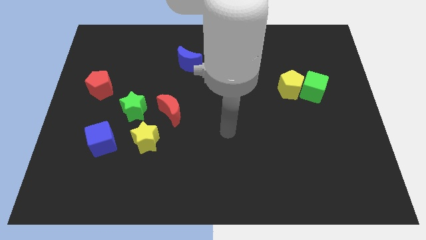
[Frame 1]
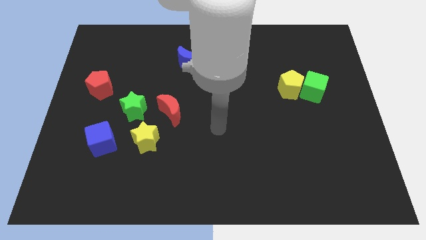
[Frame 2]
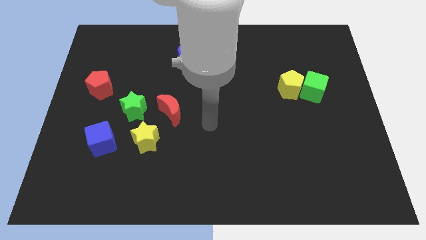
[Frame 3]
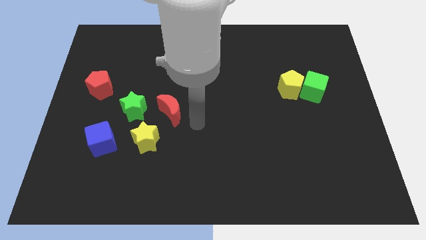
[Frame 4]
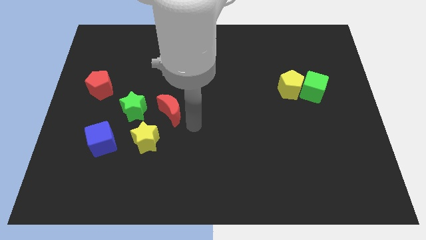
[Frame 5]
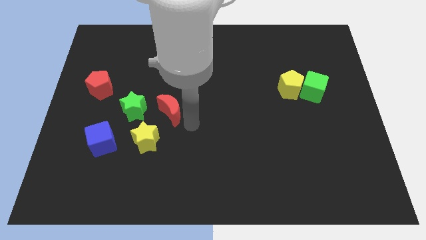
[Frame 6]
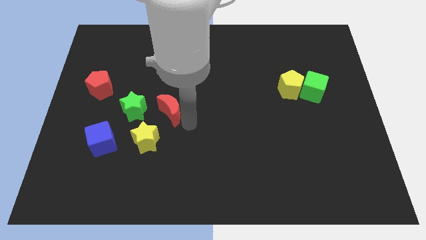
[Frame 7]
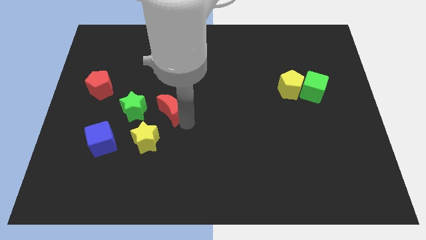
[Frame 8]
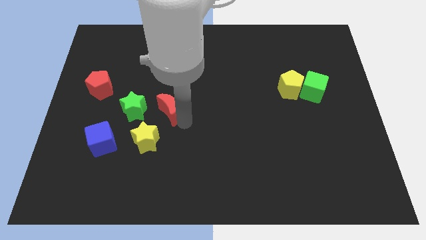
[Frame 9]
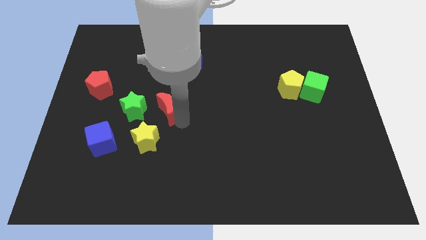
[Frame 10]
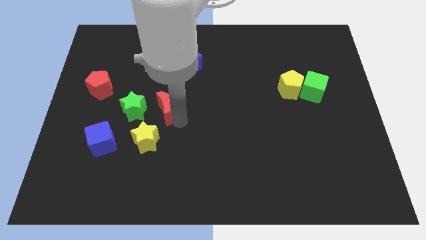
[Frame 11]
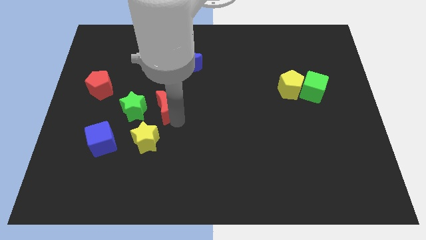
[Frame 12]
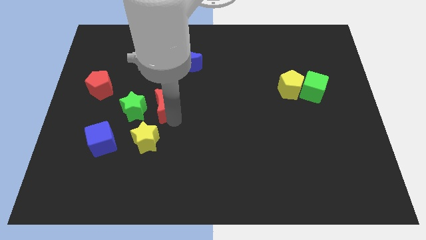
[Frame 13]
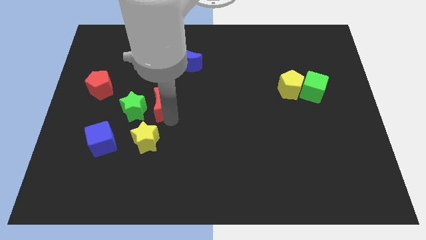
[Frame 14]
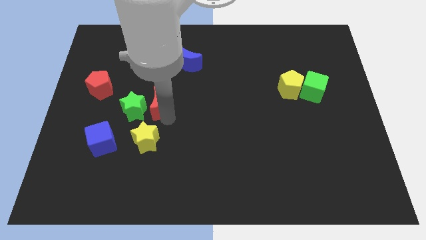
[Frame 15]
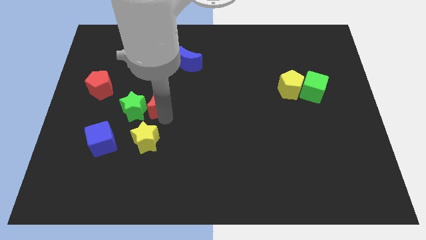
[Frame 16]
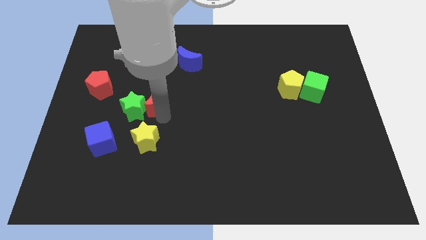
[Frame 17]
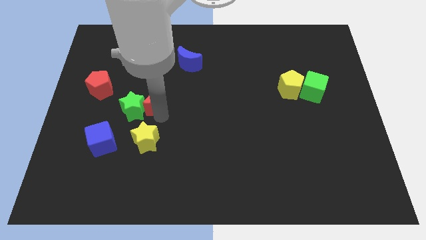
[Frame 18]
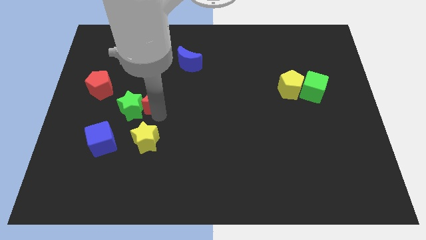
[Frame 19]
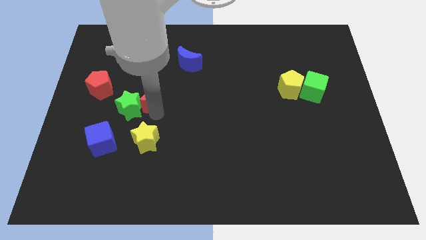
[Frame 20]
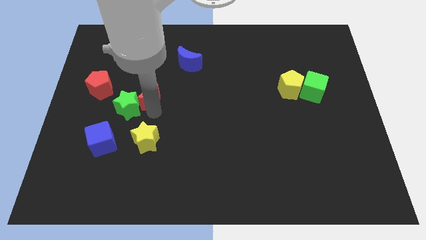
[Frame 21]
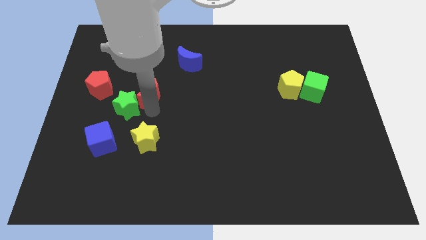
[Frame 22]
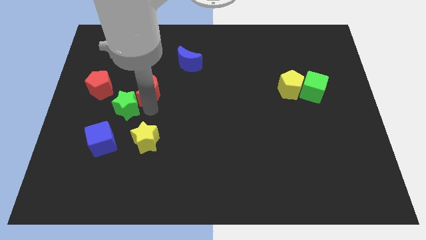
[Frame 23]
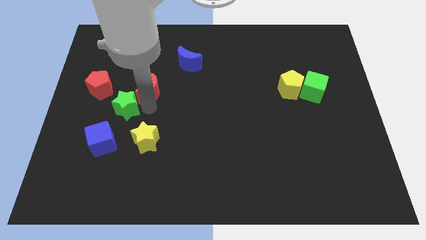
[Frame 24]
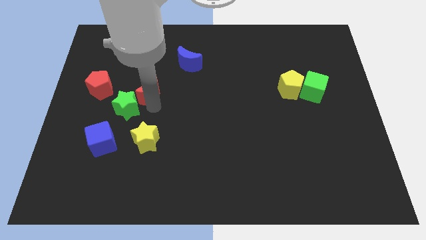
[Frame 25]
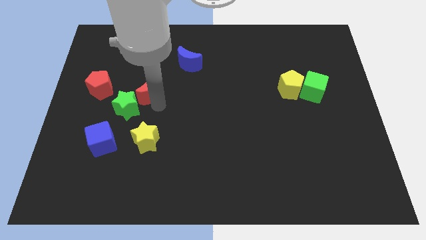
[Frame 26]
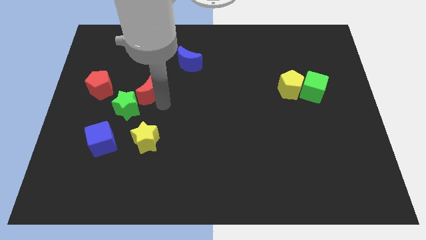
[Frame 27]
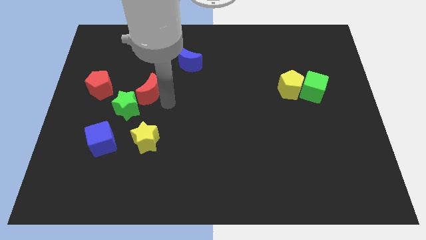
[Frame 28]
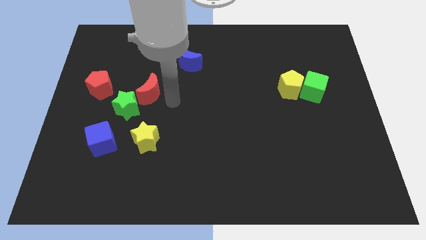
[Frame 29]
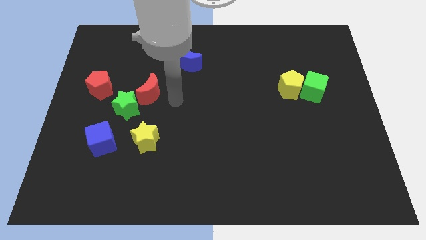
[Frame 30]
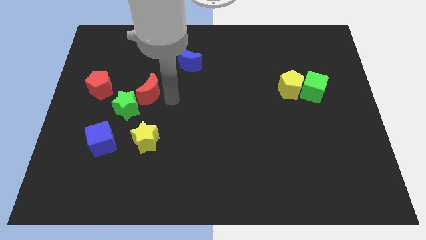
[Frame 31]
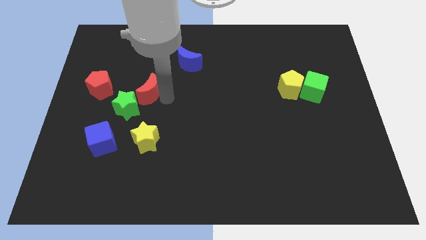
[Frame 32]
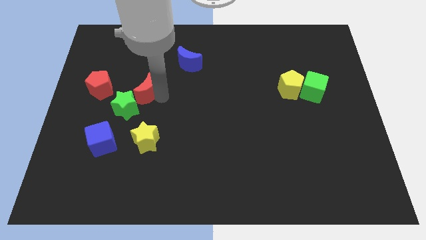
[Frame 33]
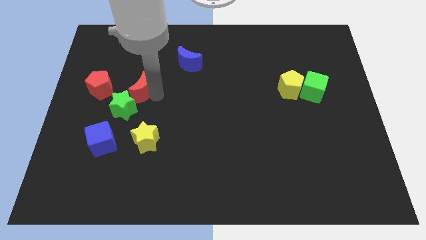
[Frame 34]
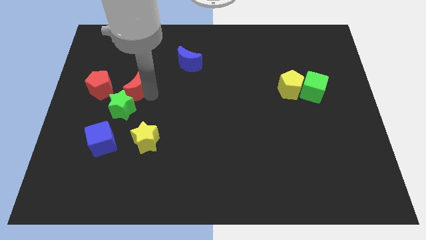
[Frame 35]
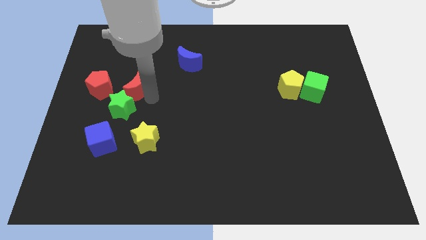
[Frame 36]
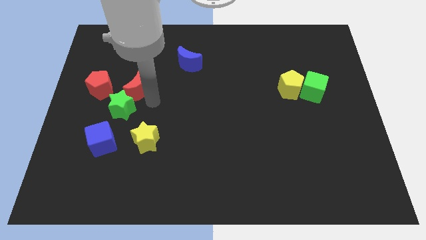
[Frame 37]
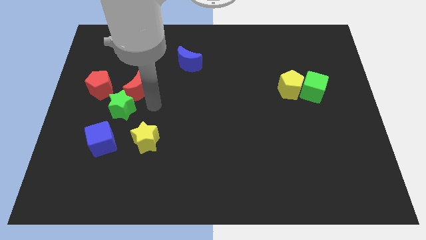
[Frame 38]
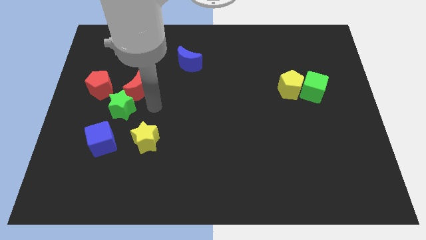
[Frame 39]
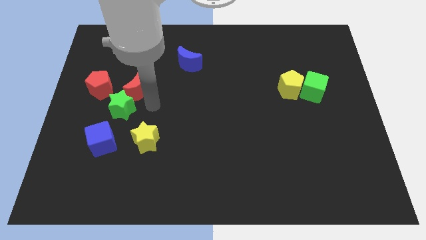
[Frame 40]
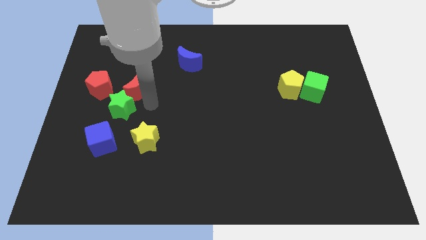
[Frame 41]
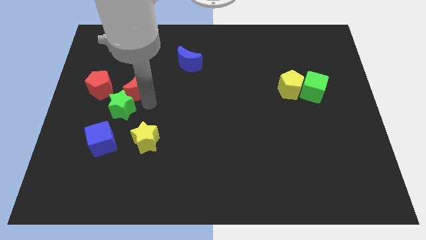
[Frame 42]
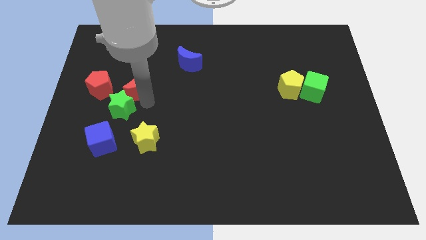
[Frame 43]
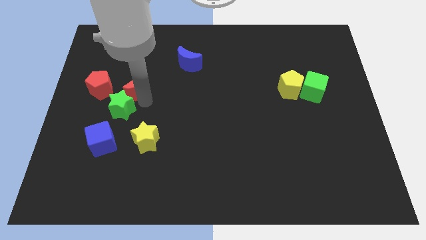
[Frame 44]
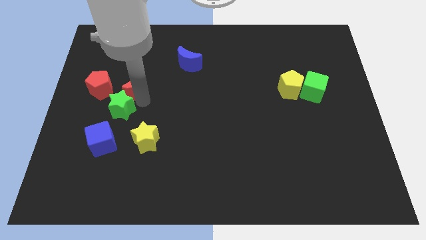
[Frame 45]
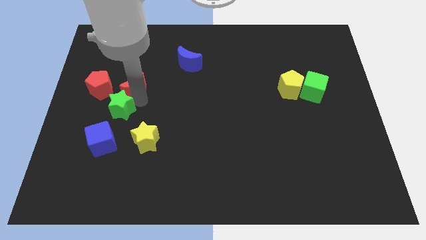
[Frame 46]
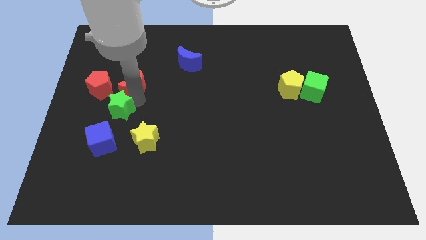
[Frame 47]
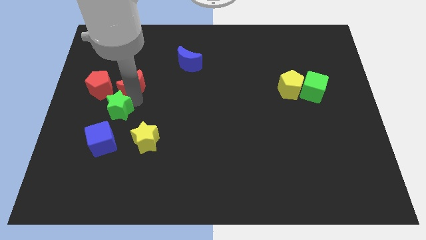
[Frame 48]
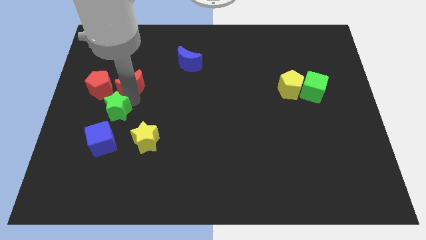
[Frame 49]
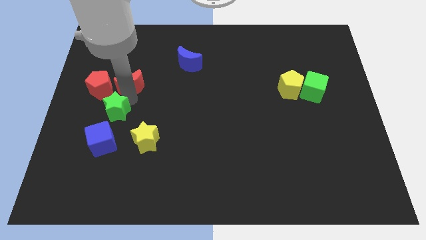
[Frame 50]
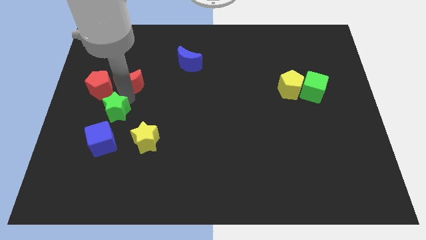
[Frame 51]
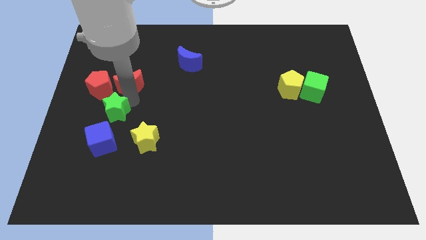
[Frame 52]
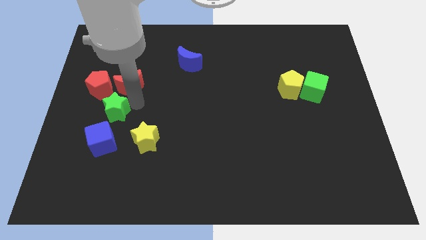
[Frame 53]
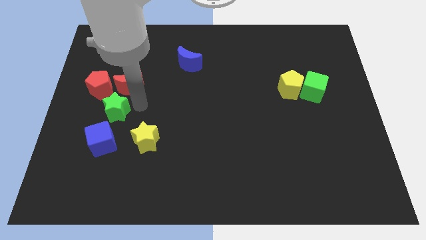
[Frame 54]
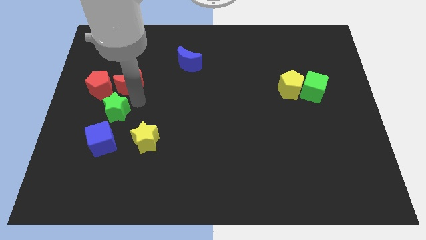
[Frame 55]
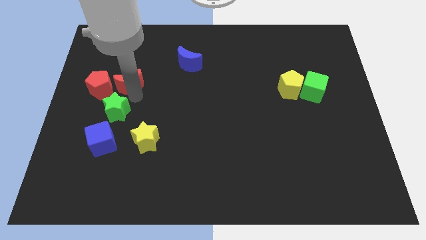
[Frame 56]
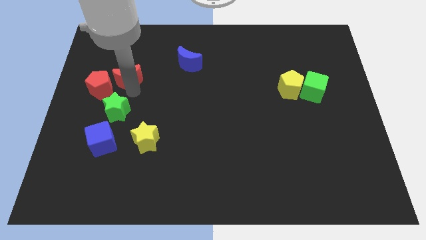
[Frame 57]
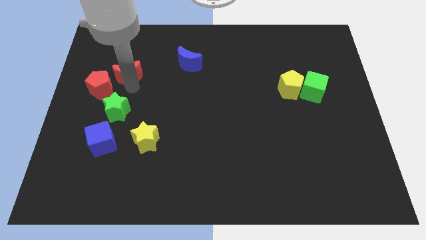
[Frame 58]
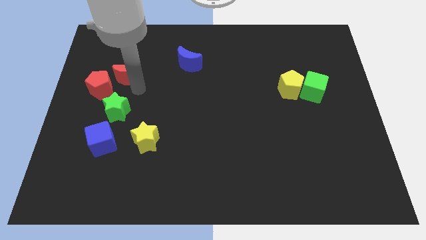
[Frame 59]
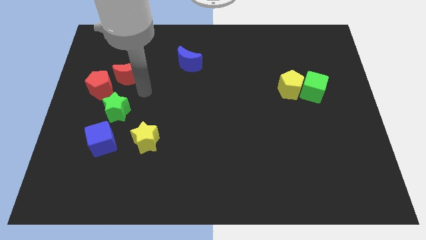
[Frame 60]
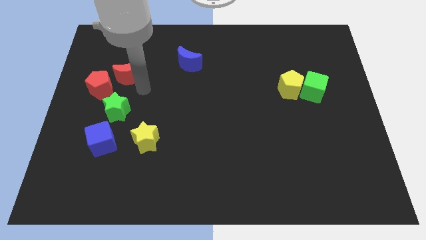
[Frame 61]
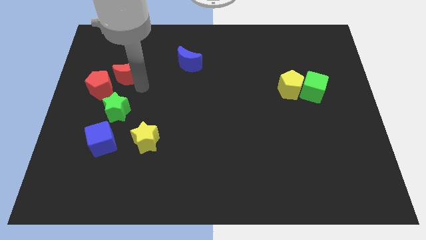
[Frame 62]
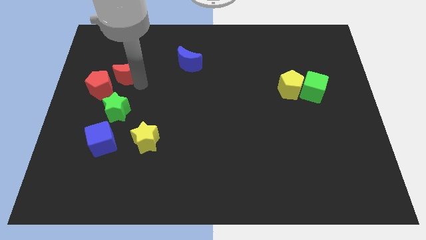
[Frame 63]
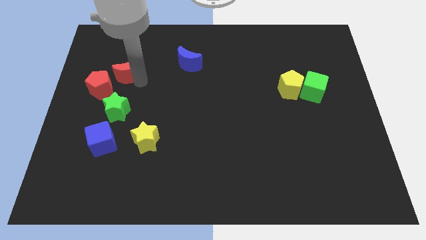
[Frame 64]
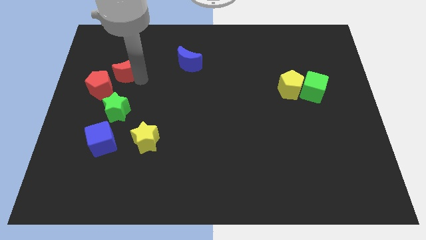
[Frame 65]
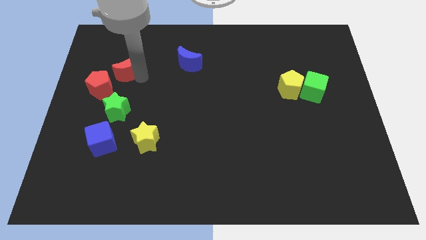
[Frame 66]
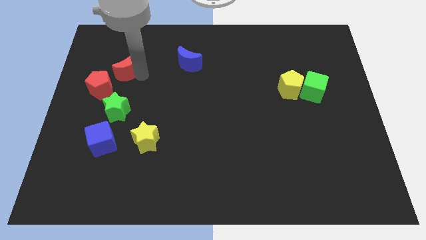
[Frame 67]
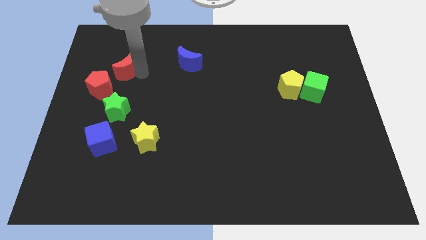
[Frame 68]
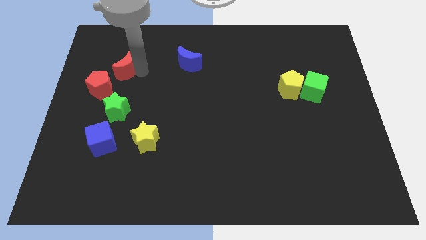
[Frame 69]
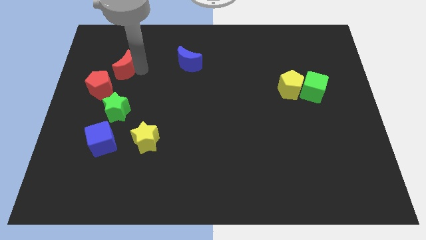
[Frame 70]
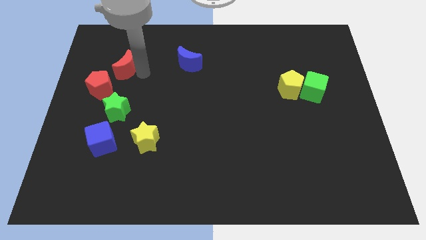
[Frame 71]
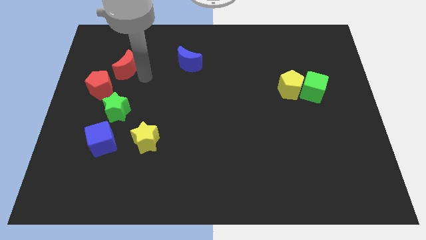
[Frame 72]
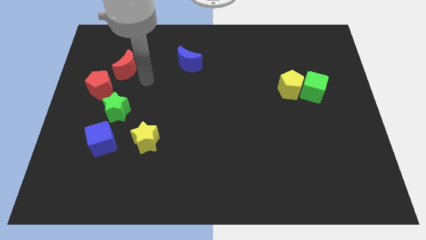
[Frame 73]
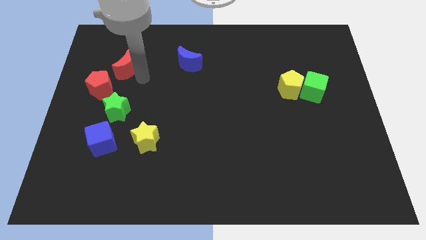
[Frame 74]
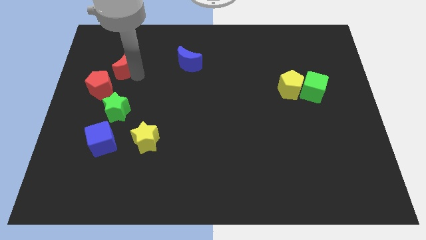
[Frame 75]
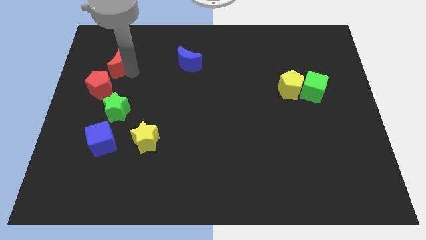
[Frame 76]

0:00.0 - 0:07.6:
move the red moon to the top of the red pentagon

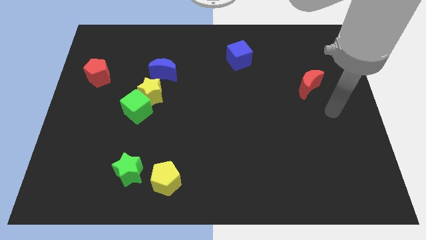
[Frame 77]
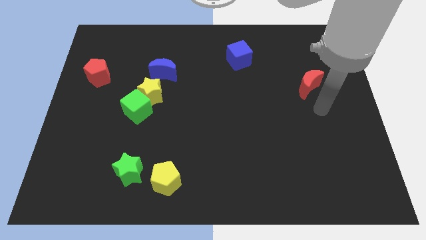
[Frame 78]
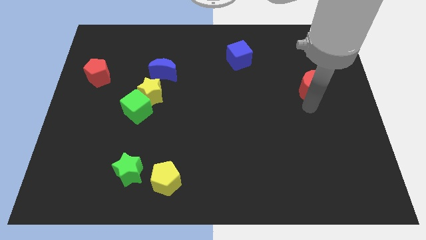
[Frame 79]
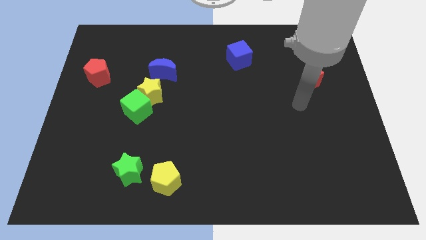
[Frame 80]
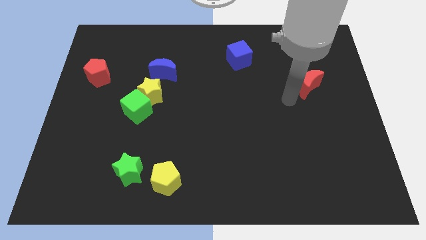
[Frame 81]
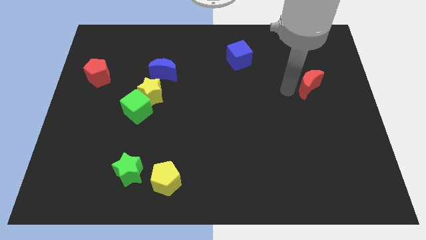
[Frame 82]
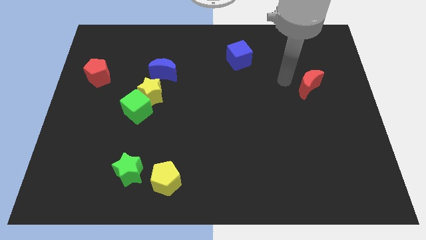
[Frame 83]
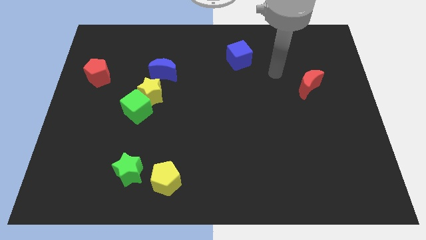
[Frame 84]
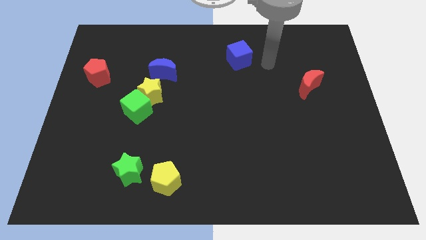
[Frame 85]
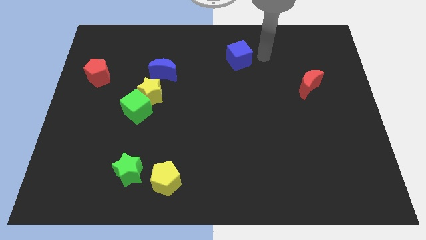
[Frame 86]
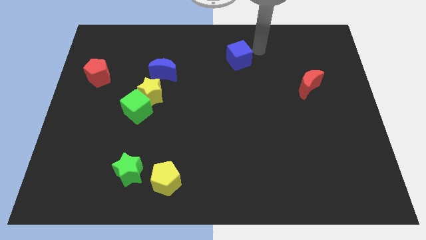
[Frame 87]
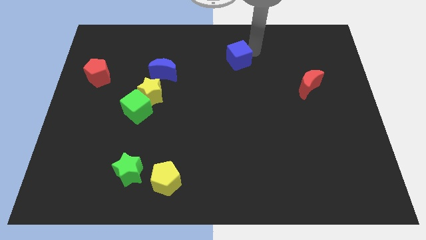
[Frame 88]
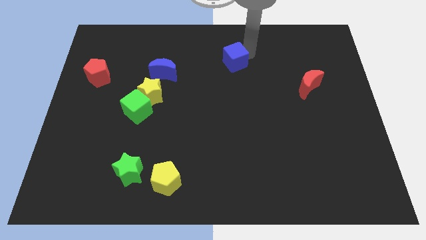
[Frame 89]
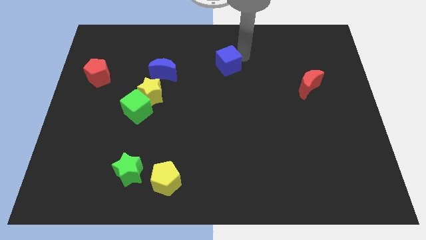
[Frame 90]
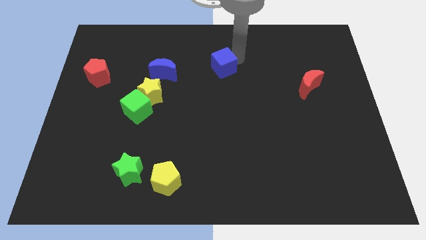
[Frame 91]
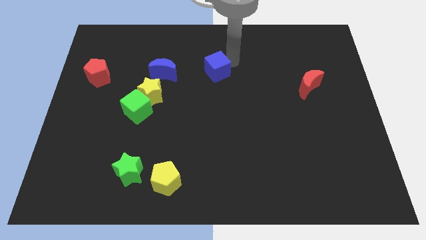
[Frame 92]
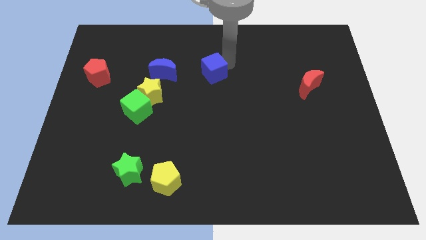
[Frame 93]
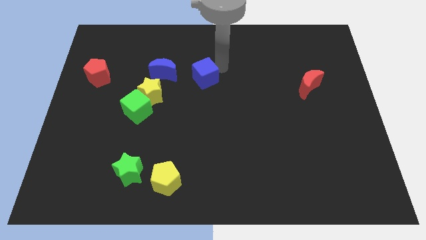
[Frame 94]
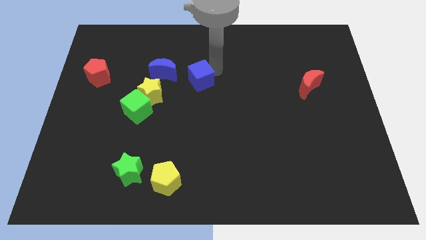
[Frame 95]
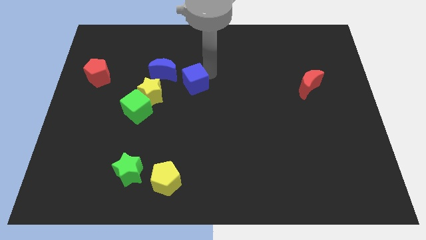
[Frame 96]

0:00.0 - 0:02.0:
put the blue cube to the bottom right side of the blue moon
